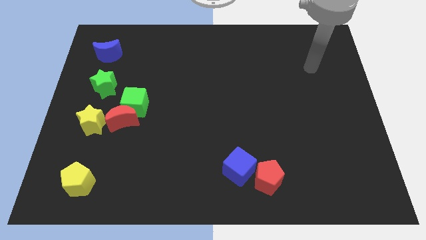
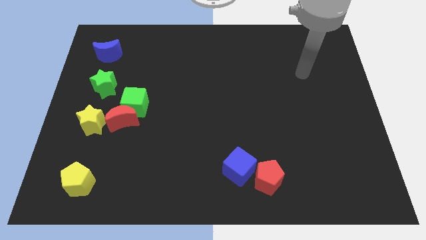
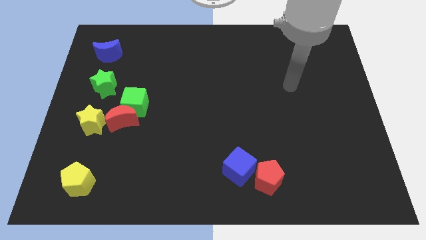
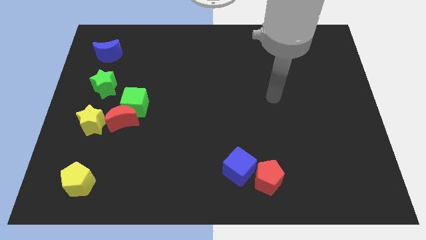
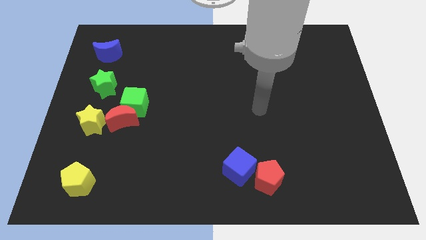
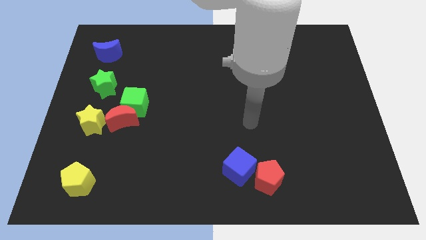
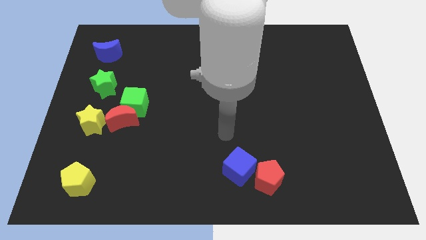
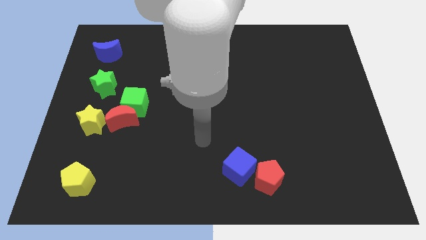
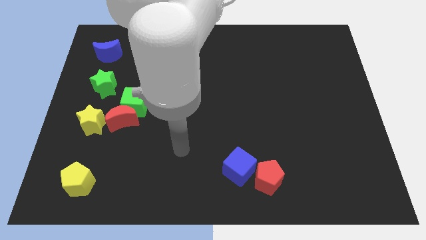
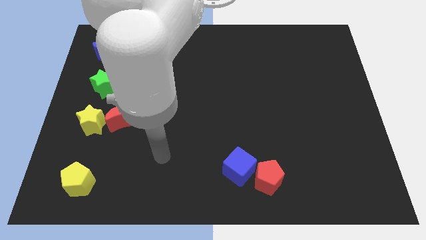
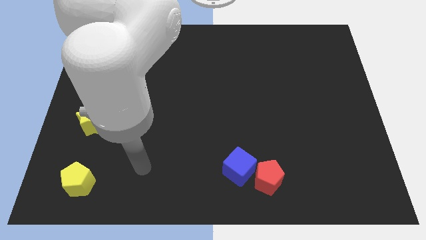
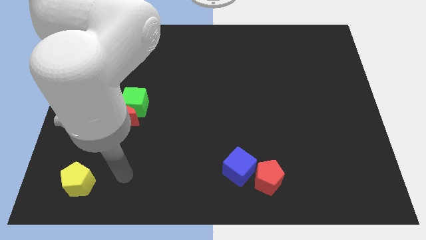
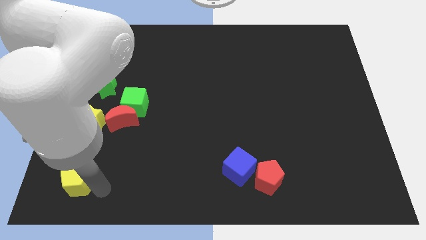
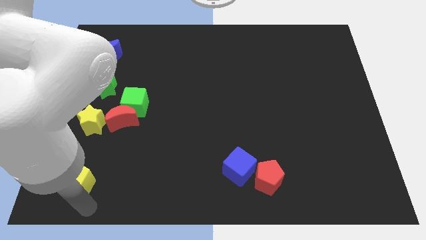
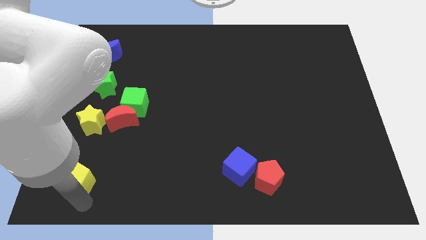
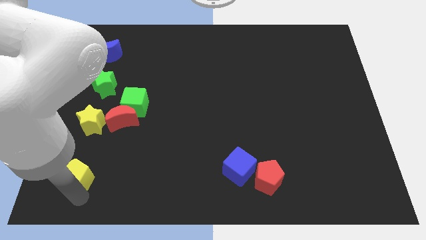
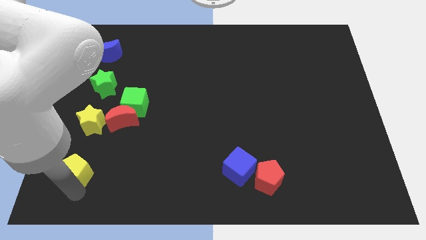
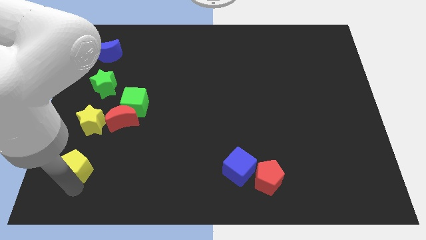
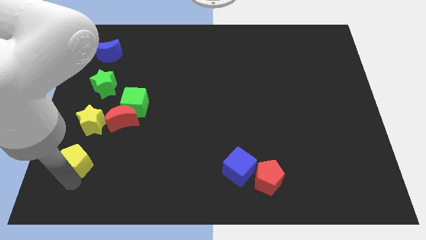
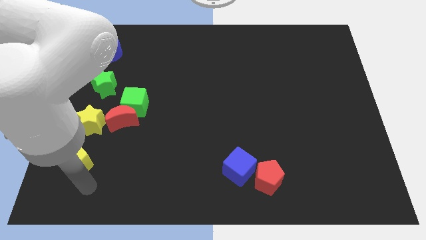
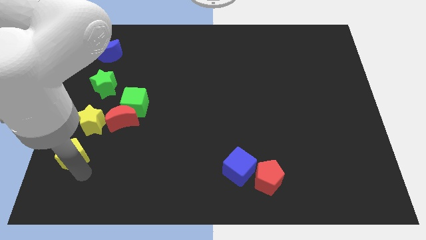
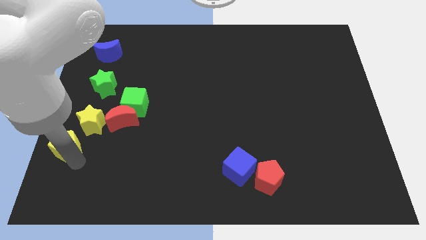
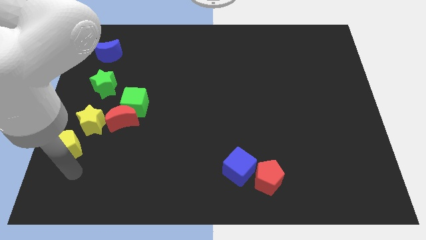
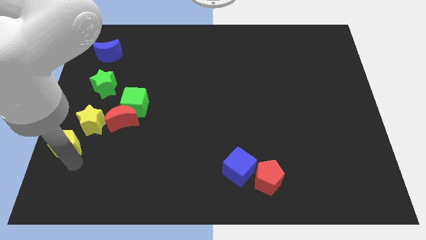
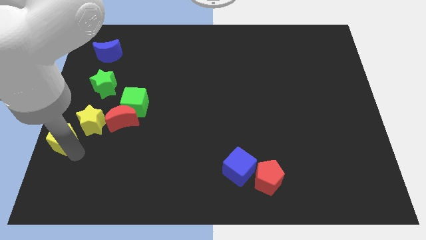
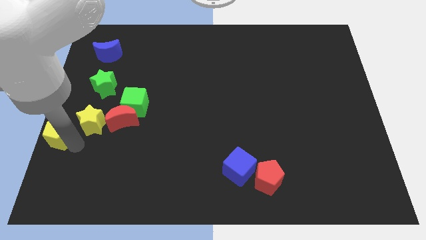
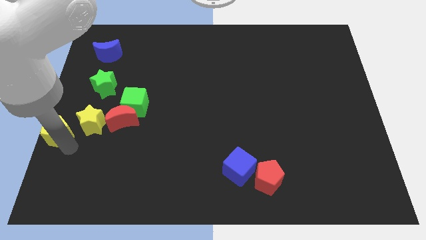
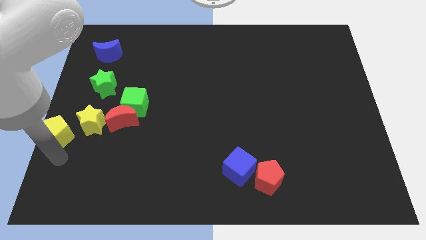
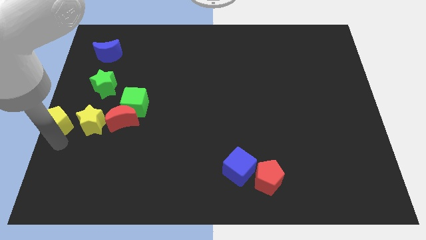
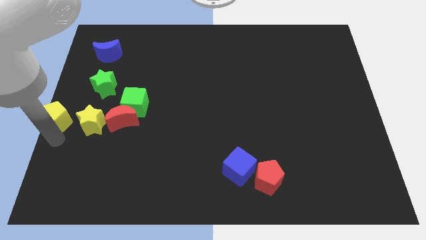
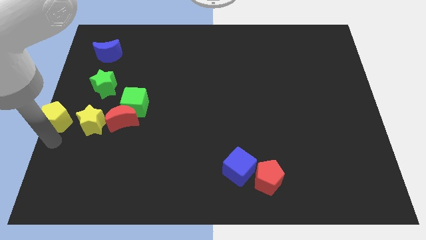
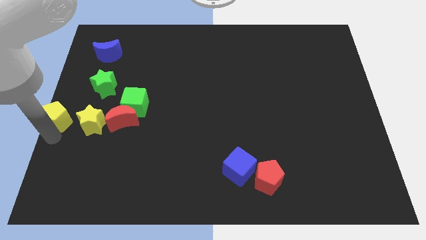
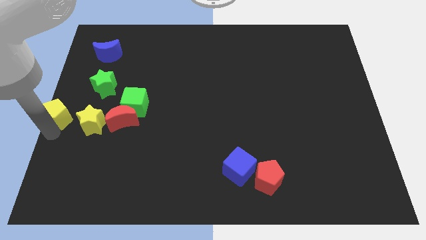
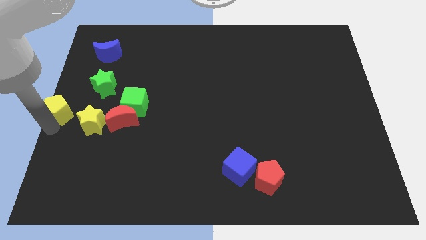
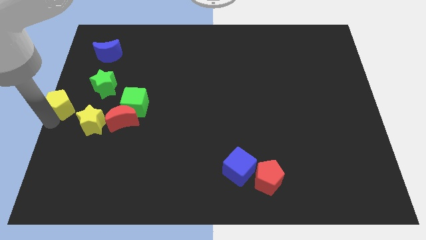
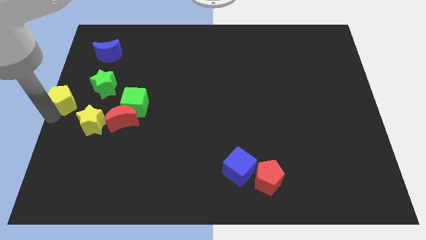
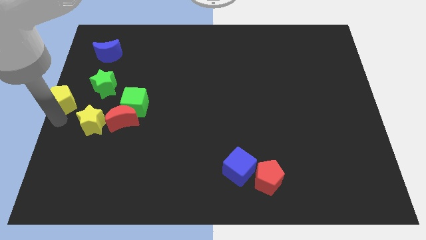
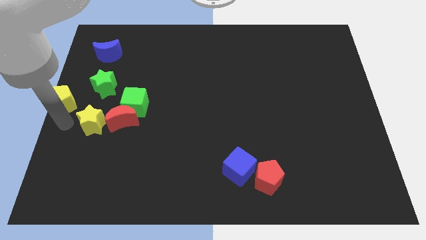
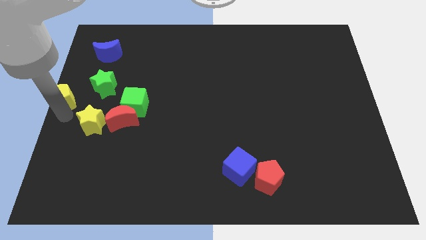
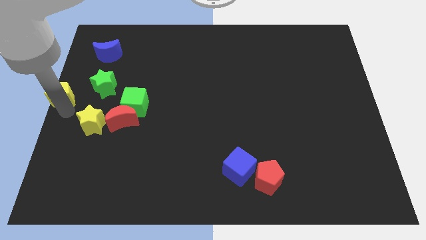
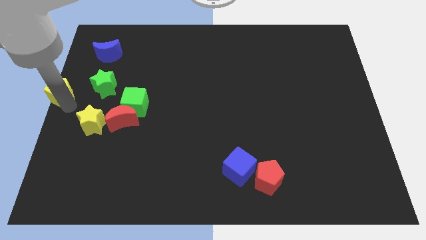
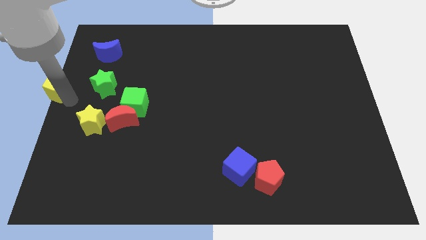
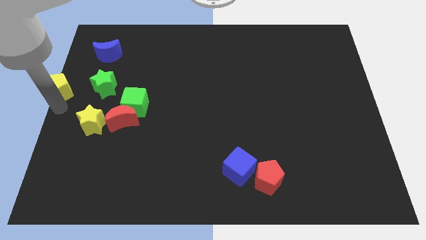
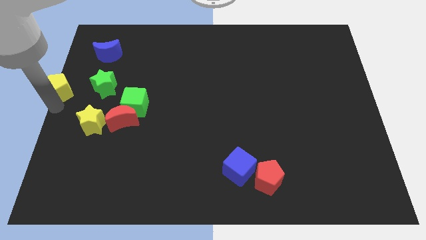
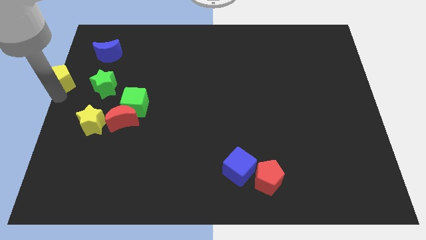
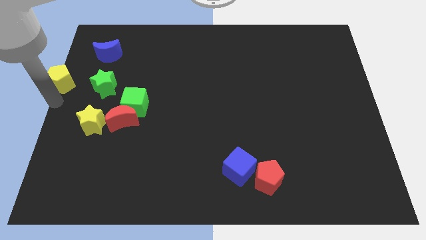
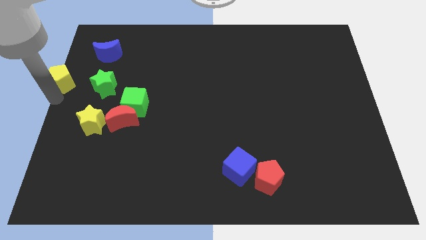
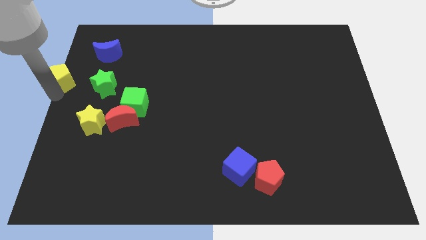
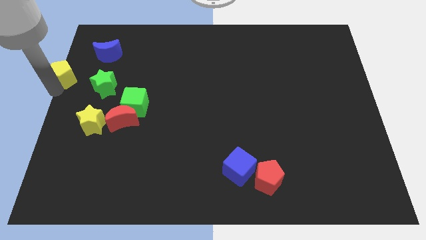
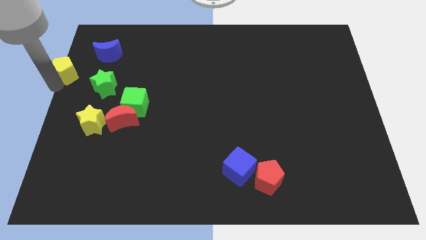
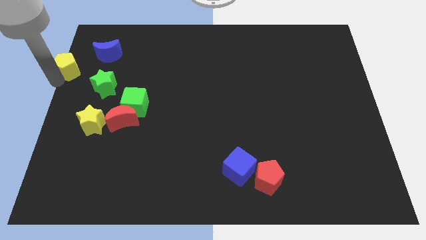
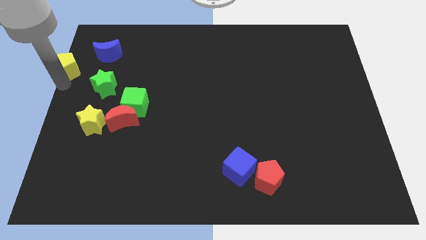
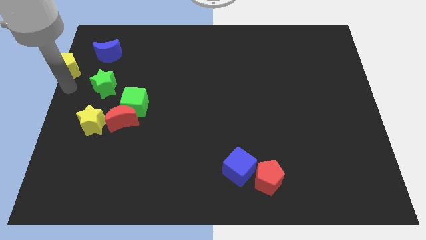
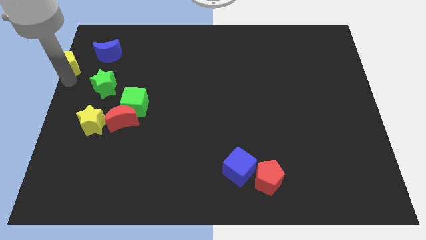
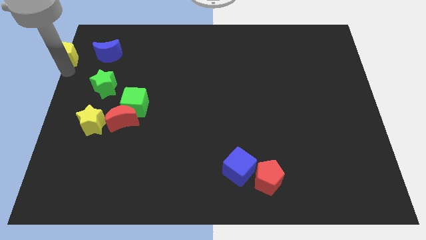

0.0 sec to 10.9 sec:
put the yellow pentagon to the top left
